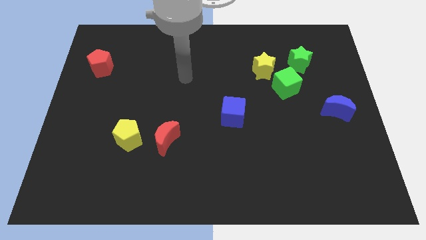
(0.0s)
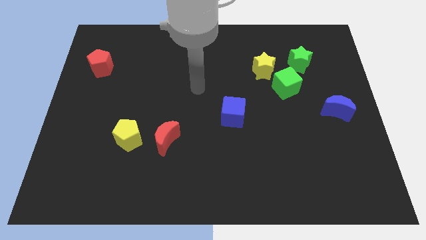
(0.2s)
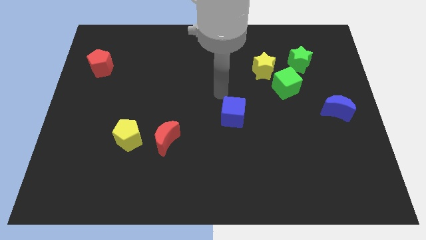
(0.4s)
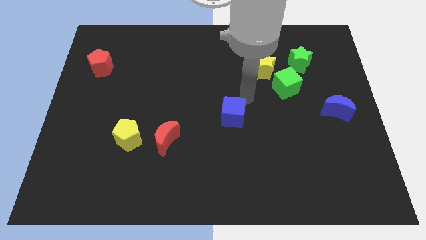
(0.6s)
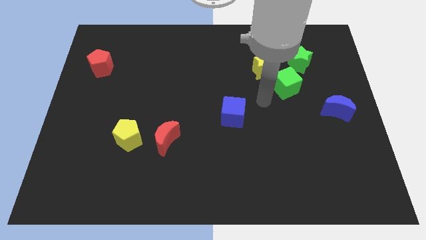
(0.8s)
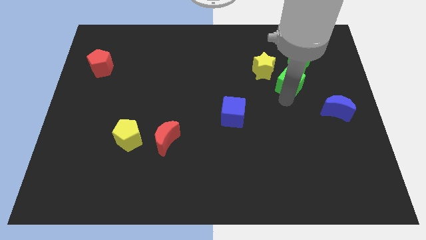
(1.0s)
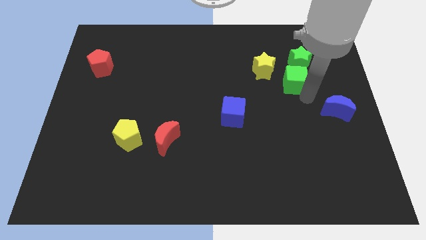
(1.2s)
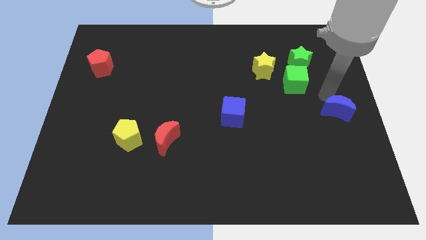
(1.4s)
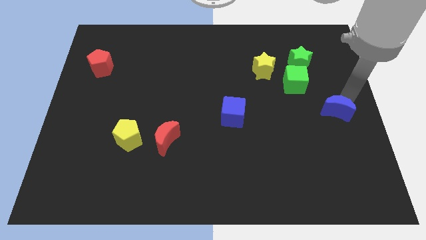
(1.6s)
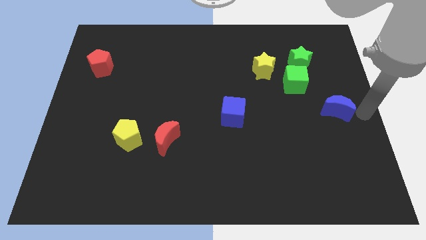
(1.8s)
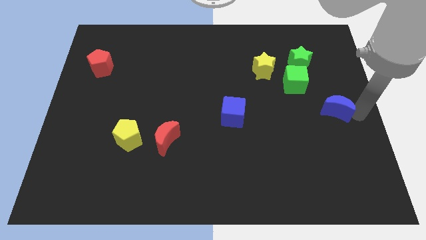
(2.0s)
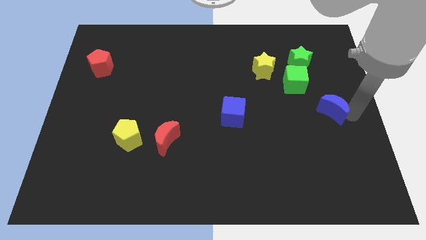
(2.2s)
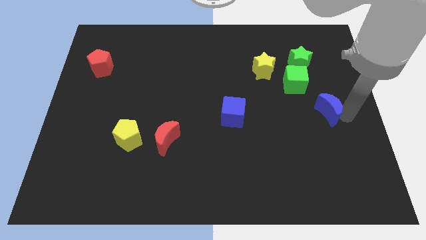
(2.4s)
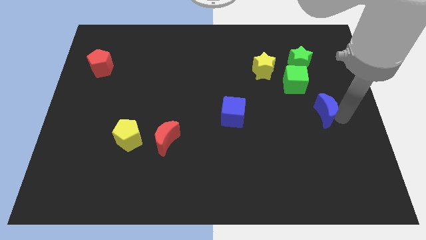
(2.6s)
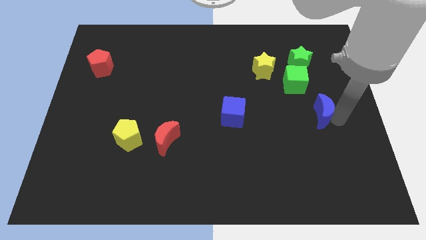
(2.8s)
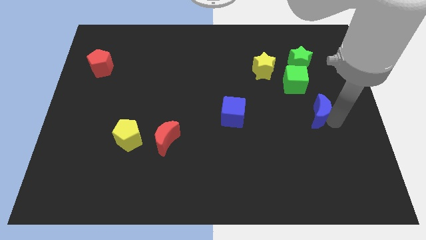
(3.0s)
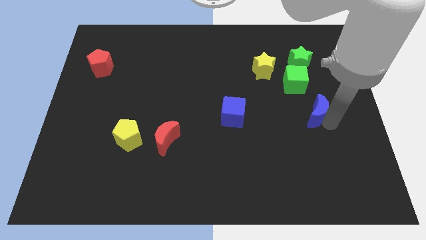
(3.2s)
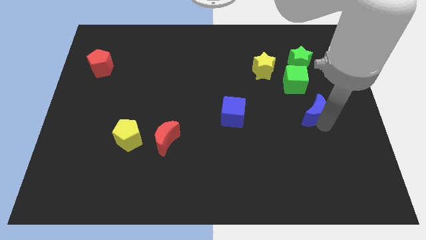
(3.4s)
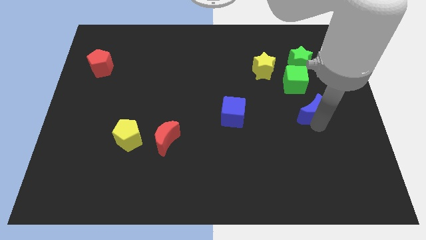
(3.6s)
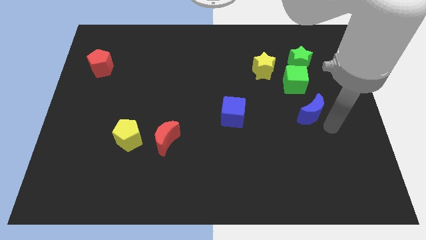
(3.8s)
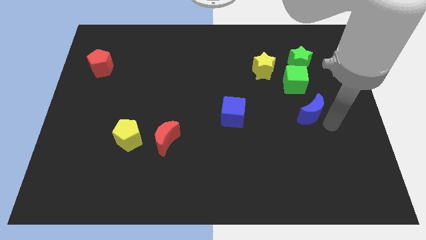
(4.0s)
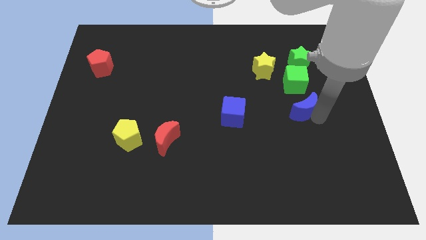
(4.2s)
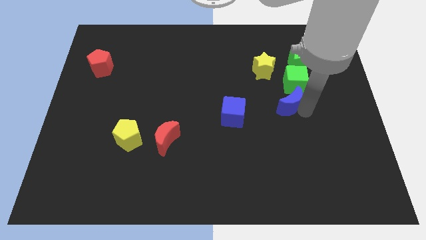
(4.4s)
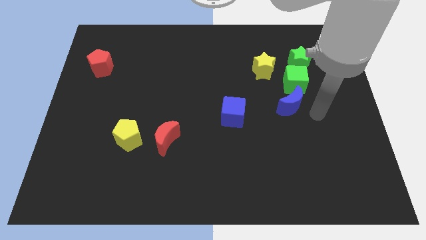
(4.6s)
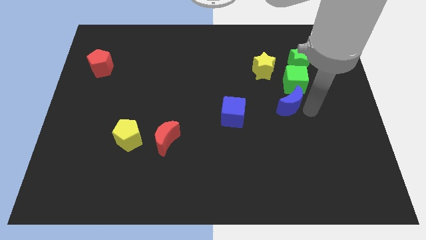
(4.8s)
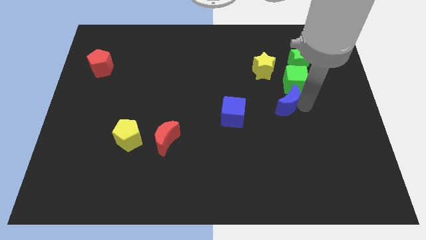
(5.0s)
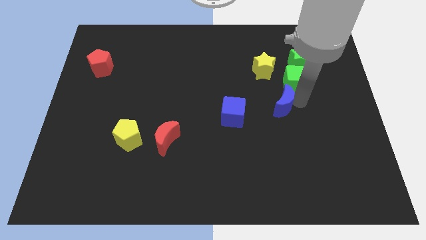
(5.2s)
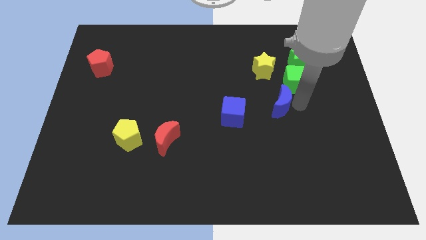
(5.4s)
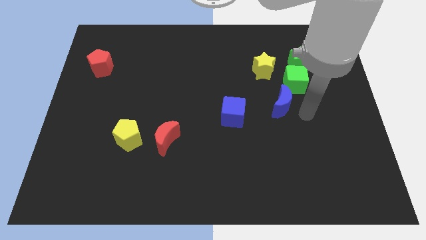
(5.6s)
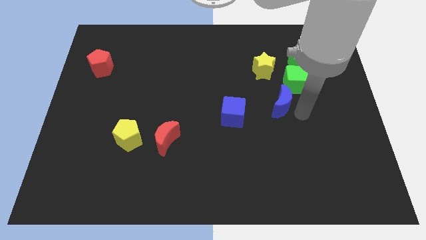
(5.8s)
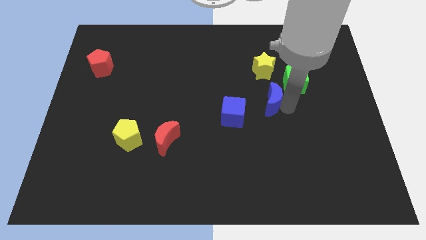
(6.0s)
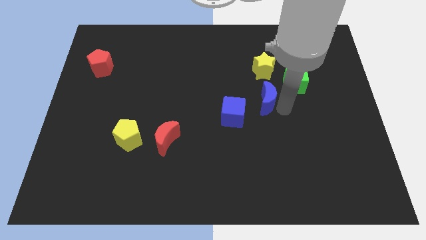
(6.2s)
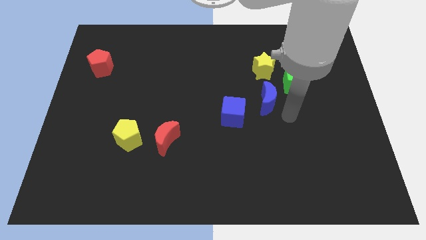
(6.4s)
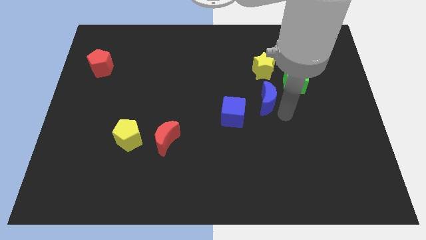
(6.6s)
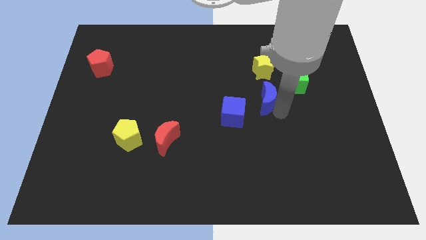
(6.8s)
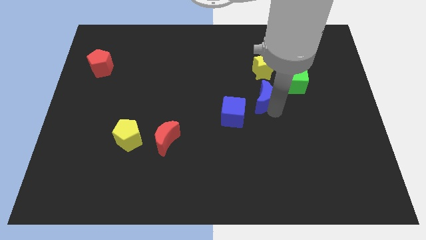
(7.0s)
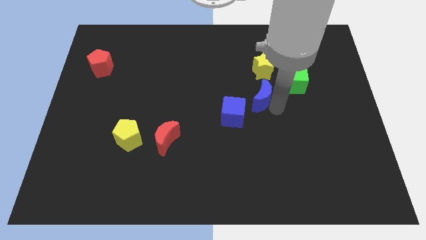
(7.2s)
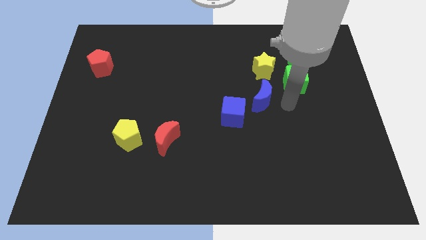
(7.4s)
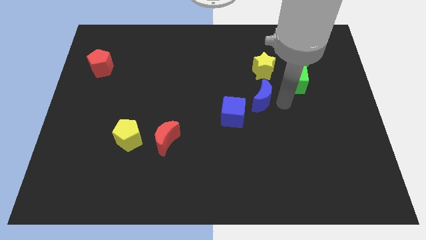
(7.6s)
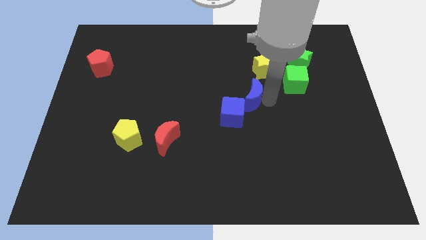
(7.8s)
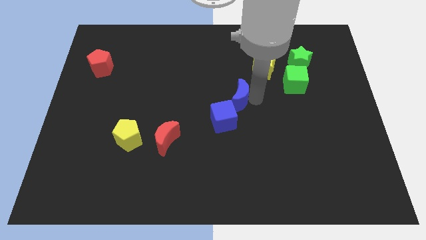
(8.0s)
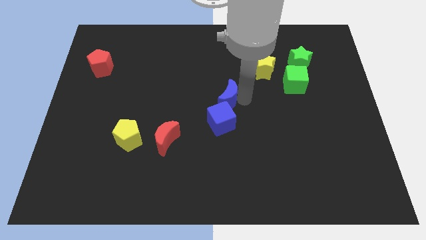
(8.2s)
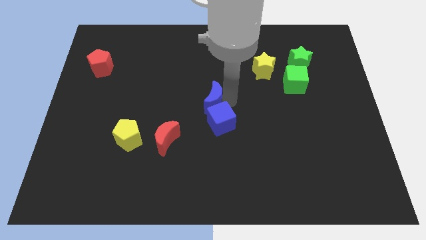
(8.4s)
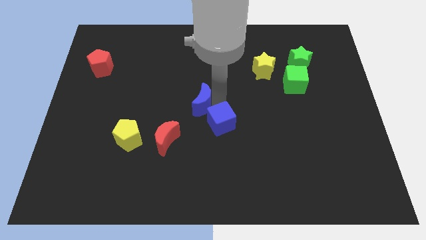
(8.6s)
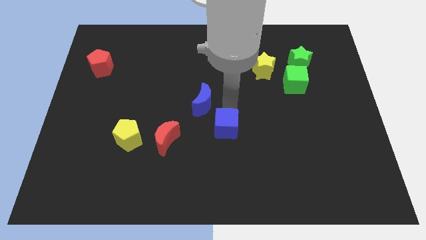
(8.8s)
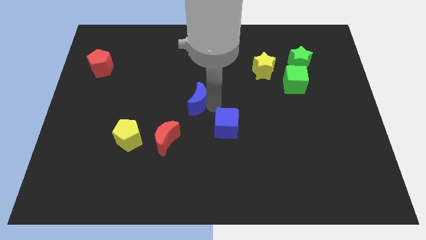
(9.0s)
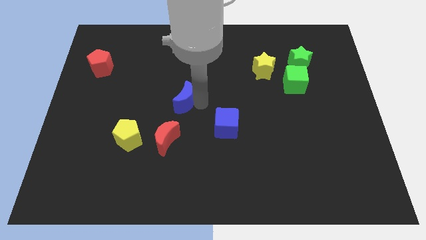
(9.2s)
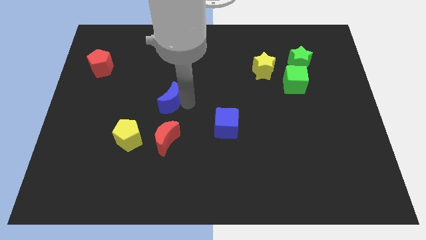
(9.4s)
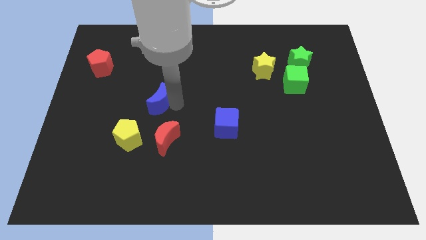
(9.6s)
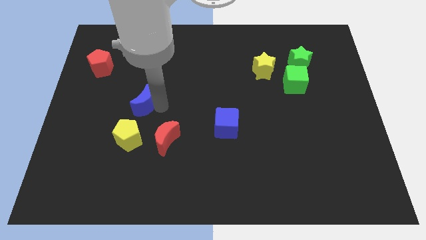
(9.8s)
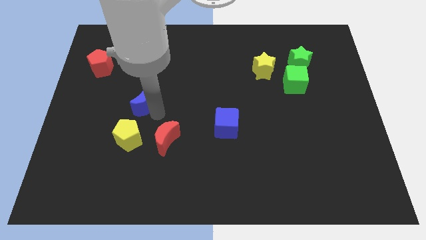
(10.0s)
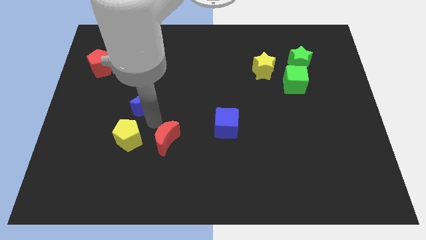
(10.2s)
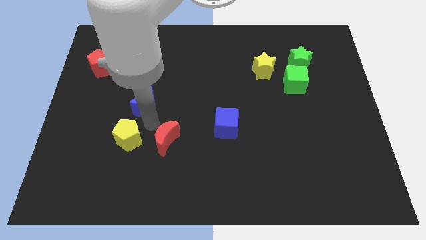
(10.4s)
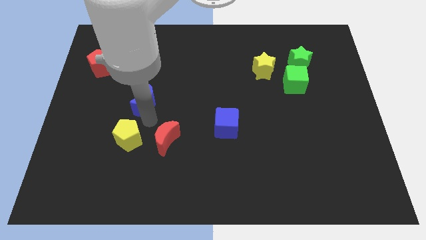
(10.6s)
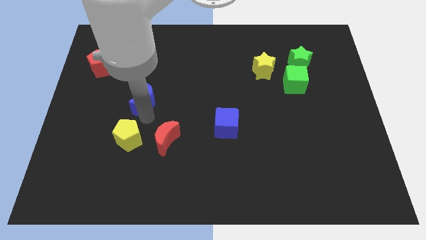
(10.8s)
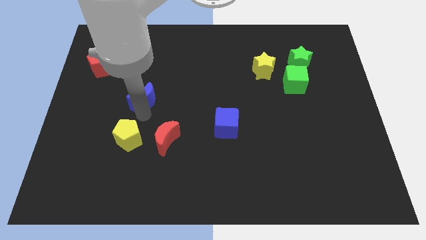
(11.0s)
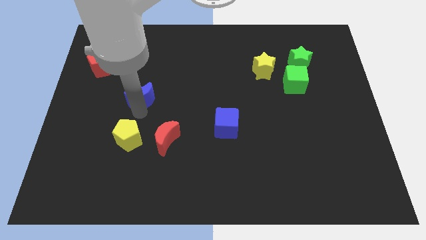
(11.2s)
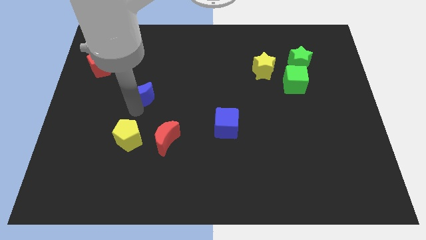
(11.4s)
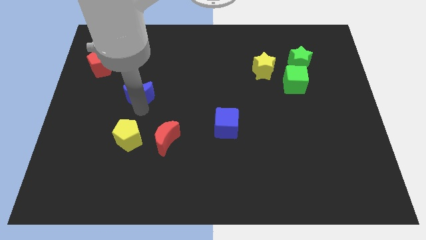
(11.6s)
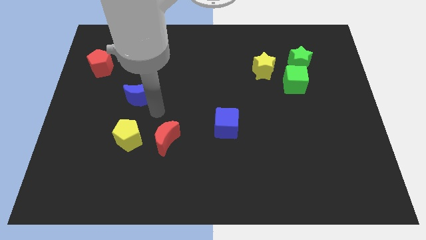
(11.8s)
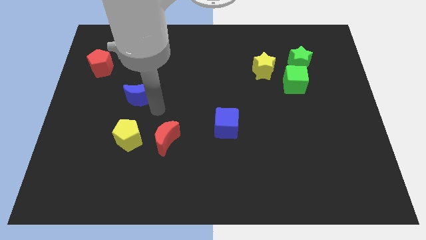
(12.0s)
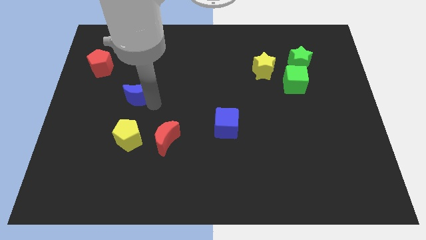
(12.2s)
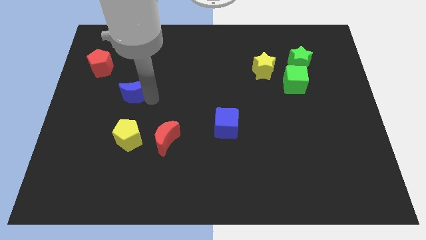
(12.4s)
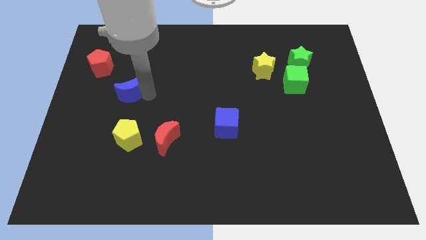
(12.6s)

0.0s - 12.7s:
move the blue moon diagonally down and to the right of the red pentagon

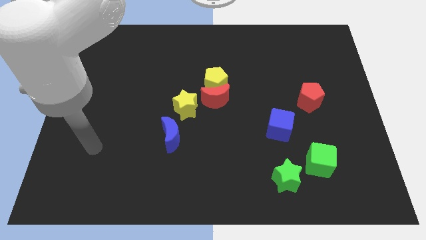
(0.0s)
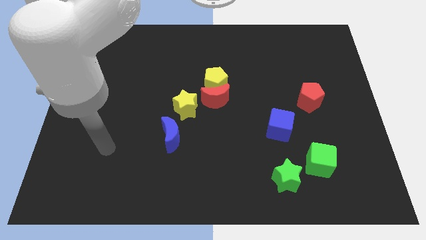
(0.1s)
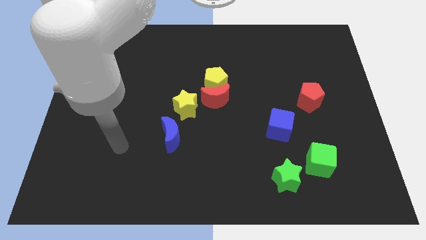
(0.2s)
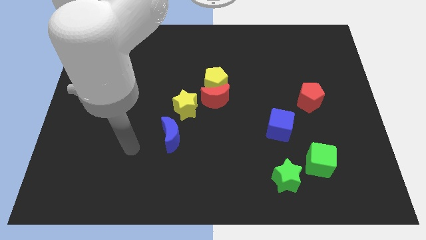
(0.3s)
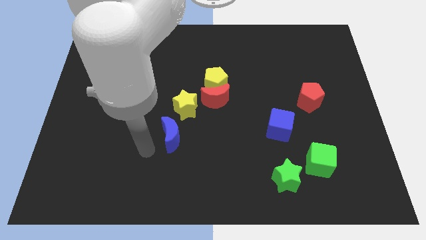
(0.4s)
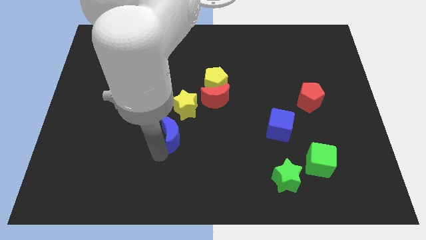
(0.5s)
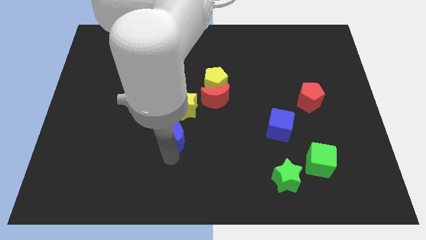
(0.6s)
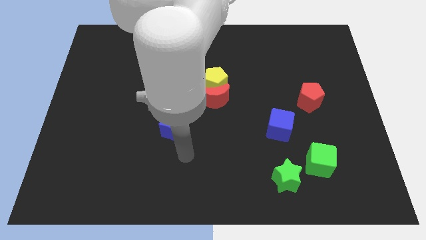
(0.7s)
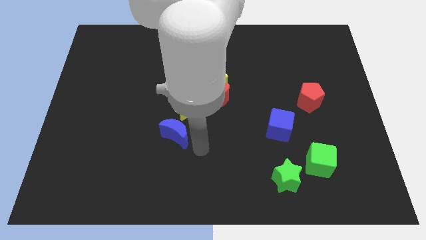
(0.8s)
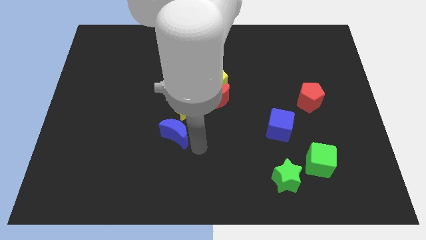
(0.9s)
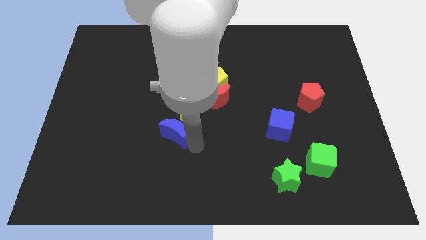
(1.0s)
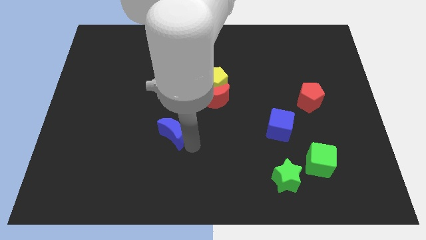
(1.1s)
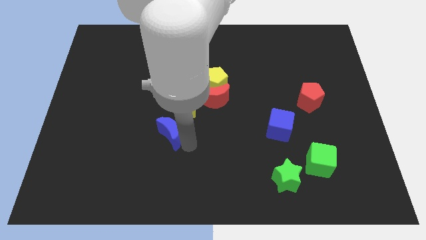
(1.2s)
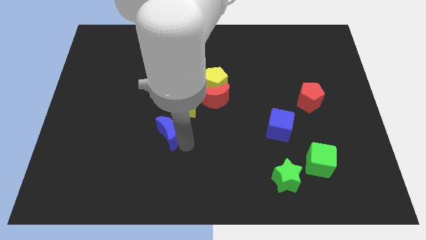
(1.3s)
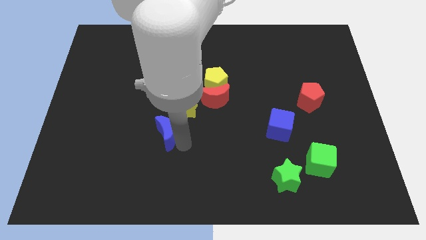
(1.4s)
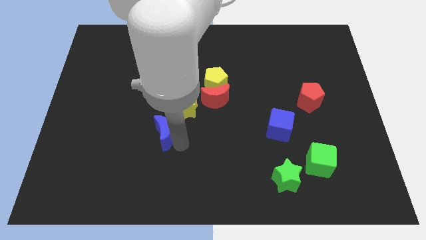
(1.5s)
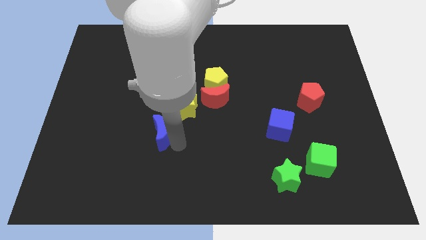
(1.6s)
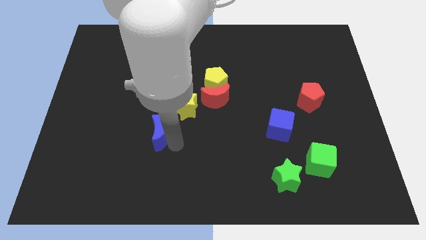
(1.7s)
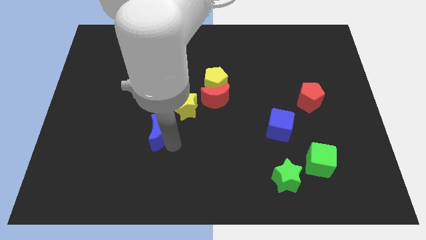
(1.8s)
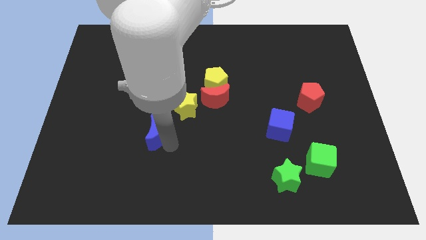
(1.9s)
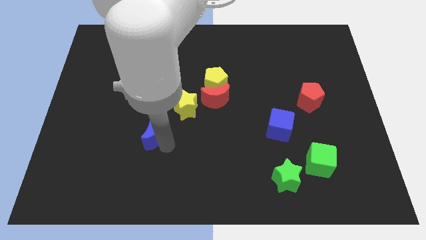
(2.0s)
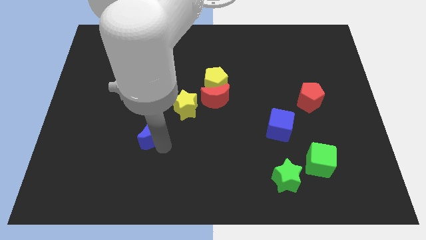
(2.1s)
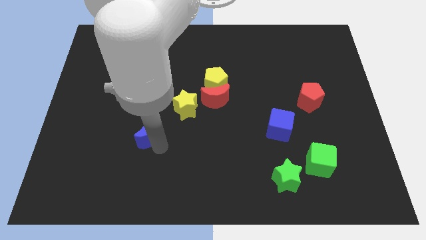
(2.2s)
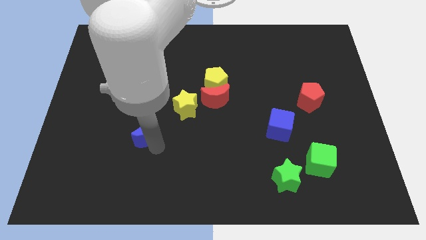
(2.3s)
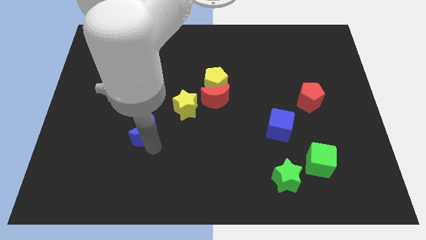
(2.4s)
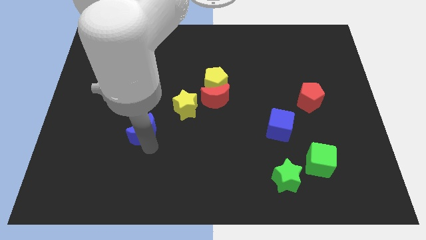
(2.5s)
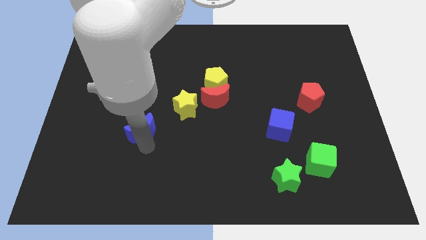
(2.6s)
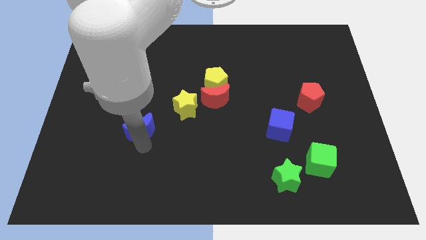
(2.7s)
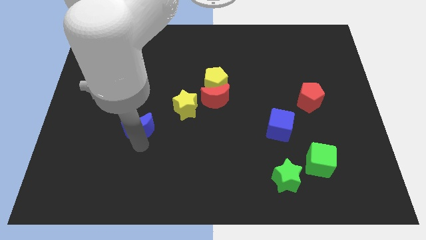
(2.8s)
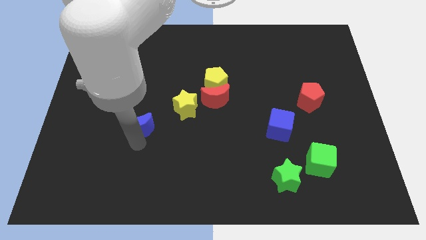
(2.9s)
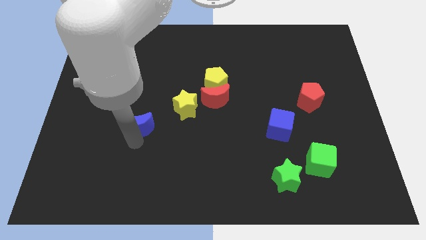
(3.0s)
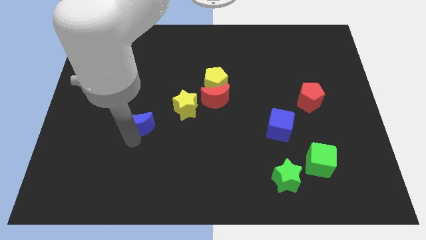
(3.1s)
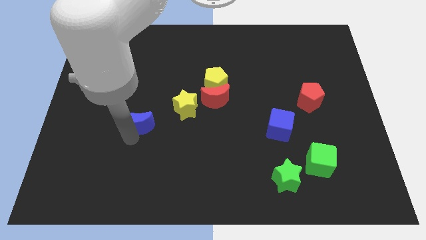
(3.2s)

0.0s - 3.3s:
push the blue moon left of the yellow star
